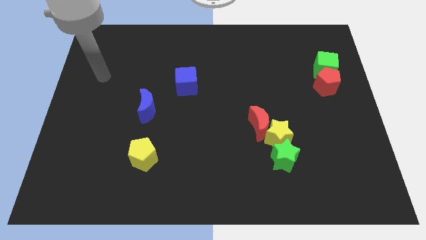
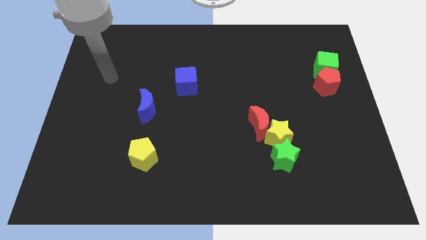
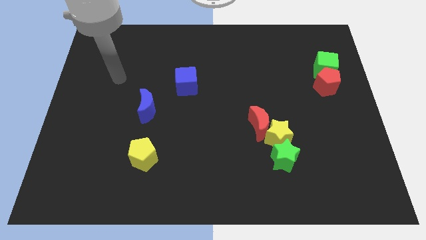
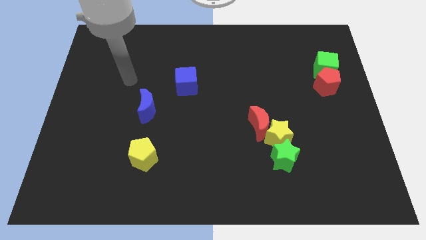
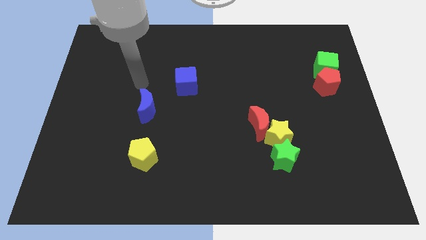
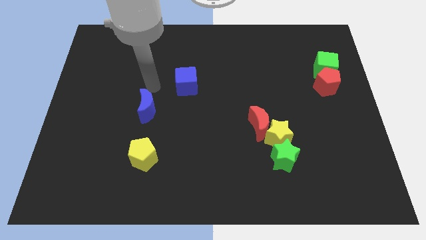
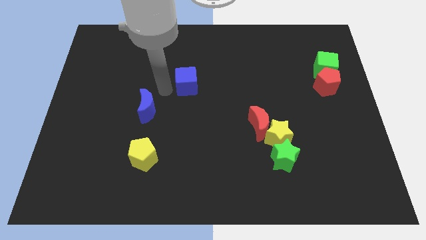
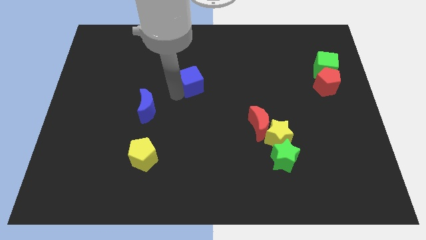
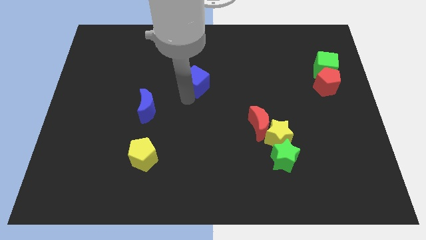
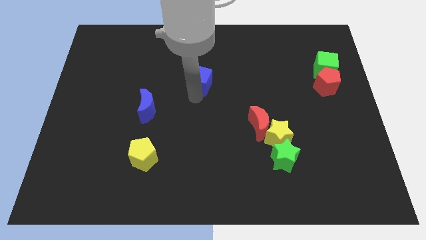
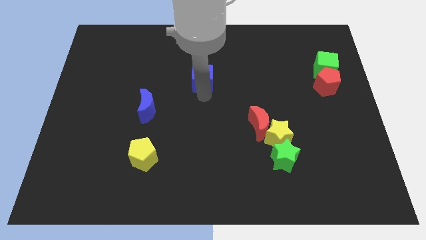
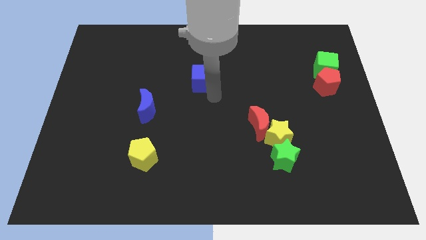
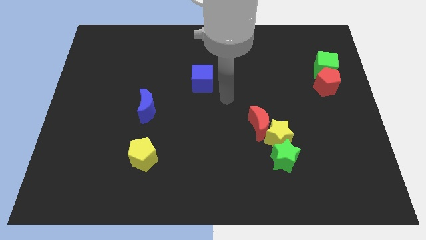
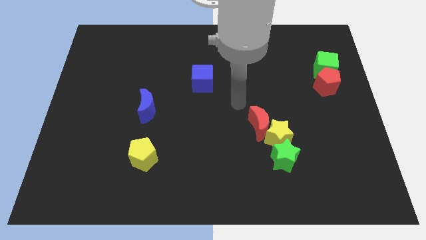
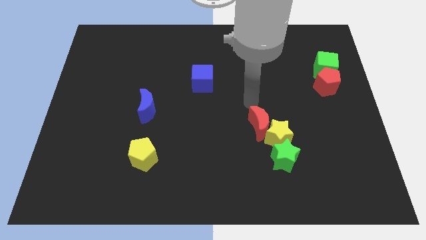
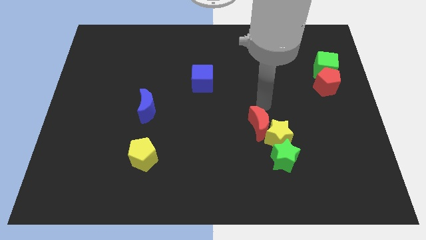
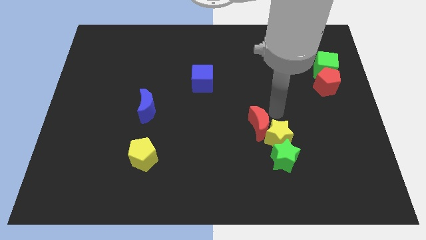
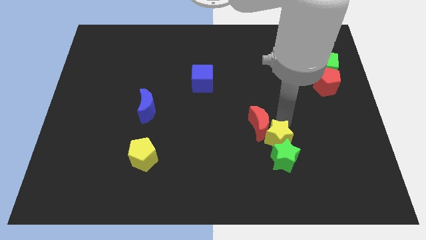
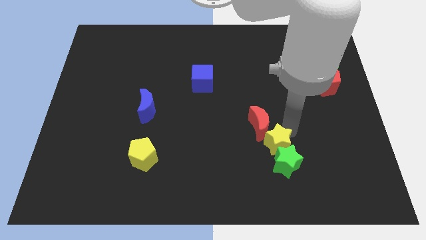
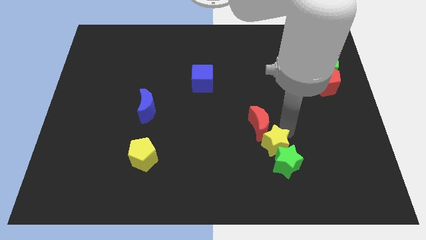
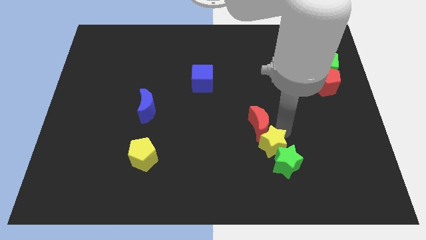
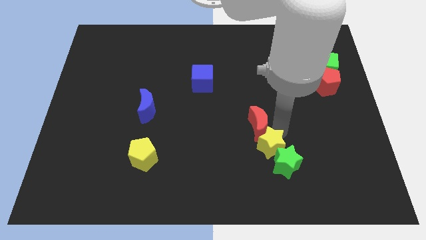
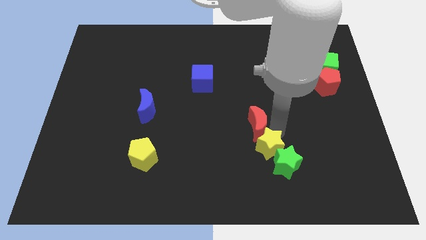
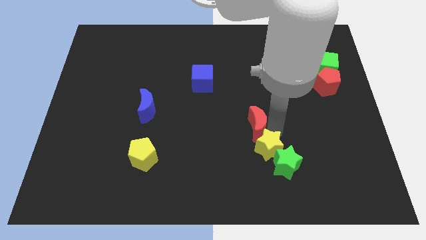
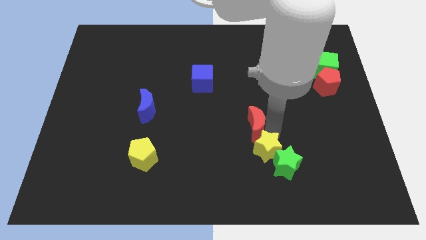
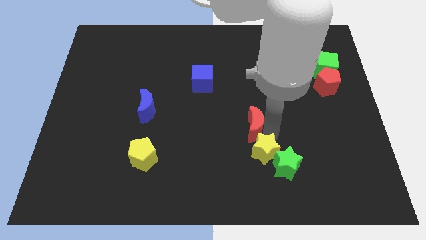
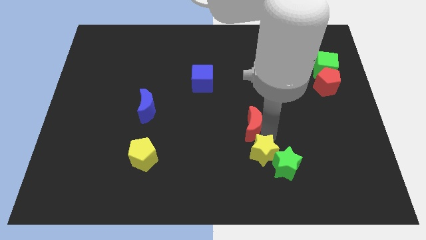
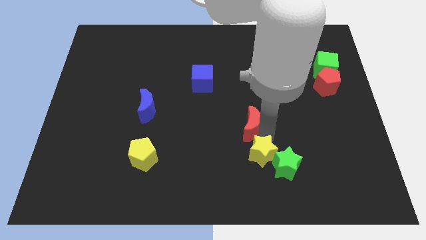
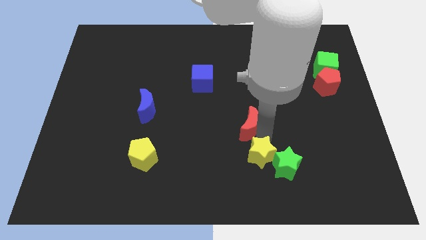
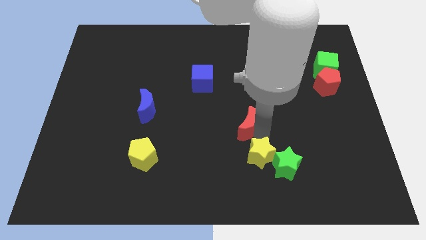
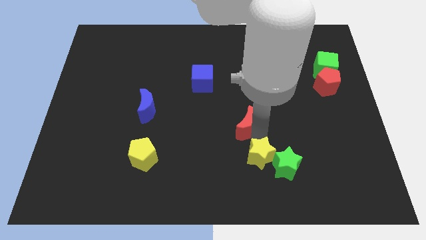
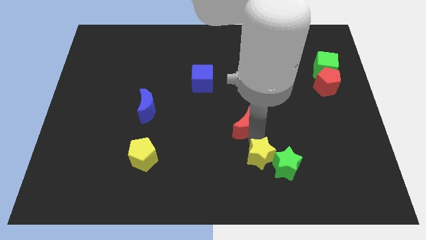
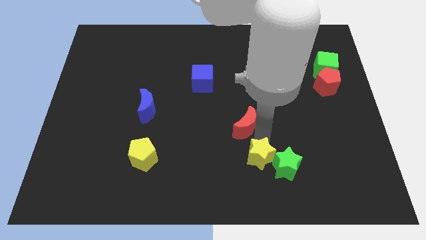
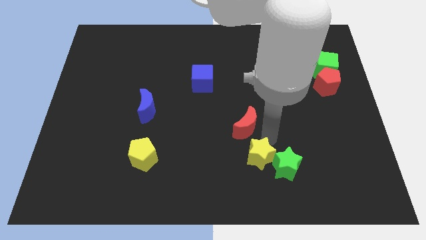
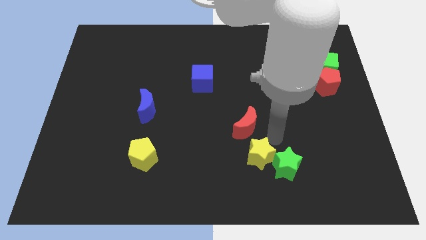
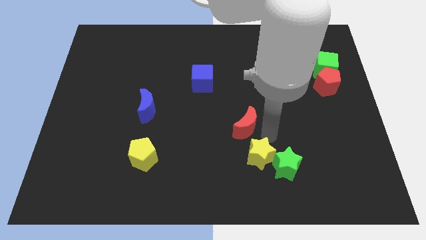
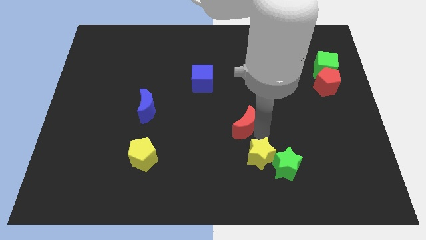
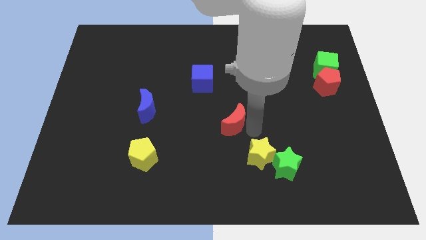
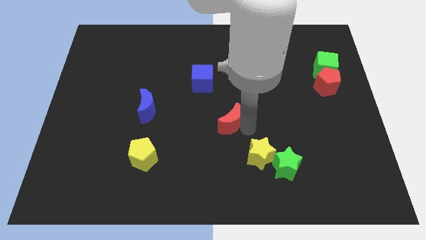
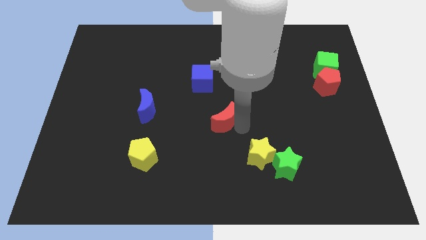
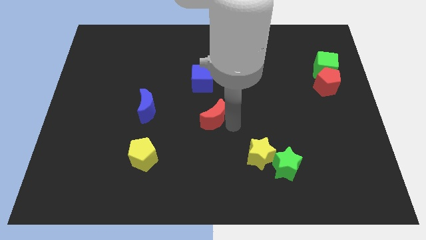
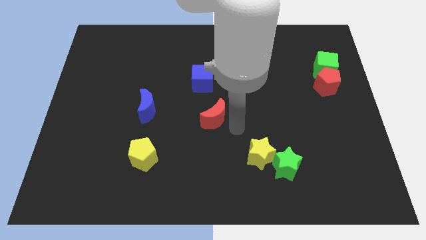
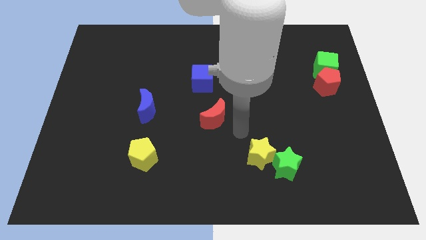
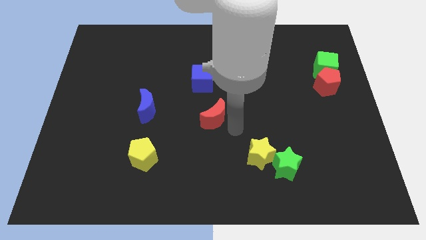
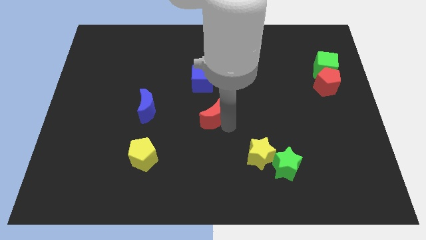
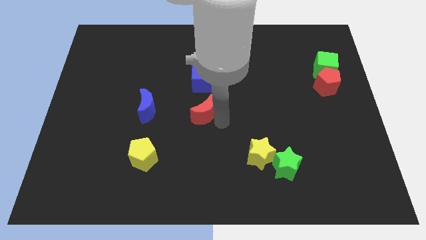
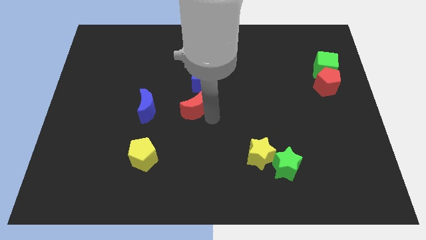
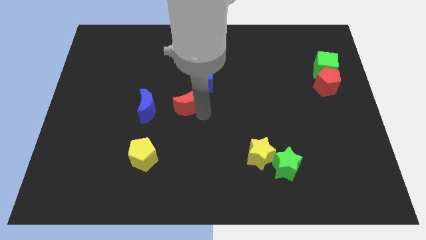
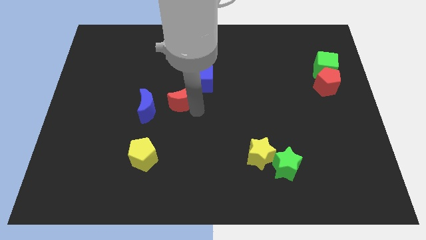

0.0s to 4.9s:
put the red moon diagonally up and to the right of the blue moon

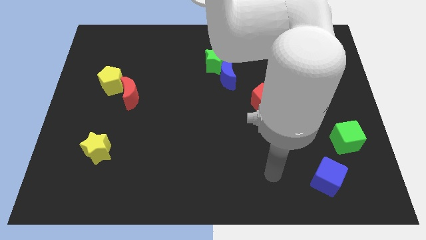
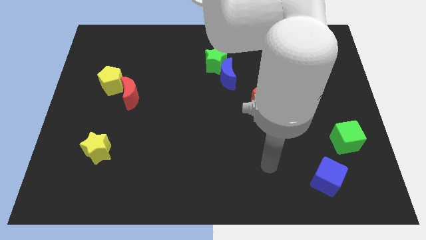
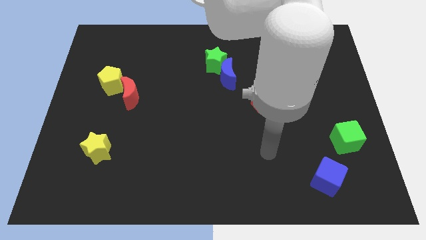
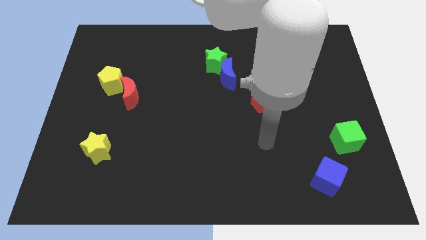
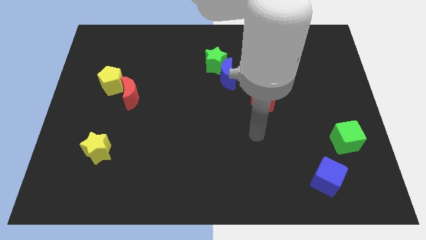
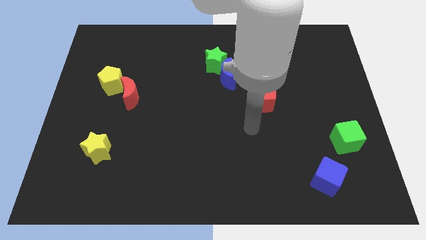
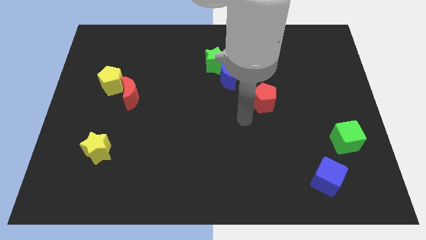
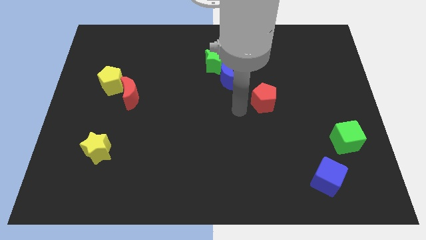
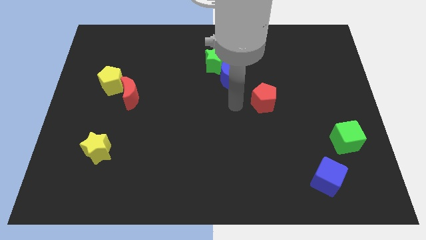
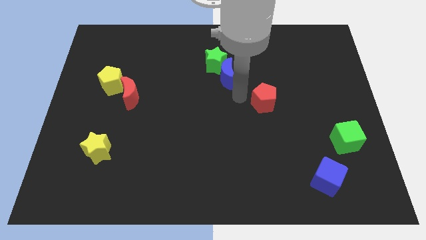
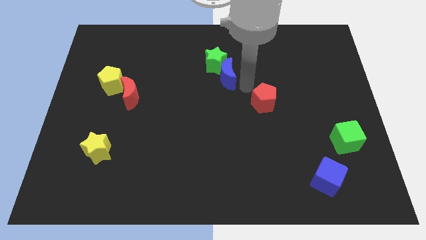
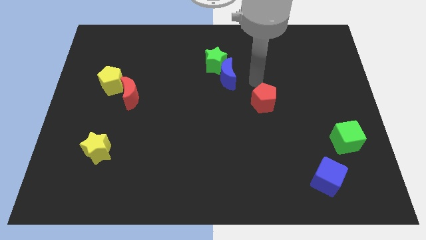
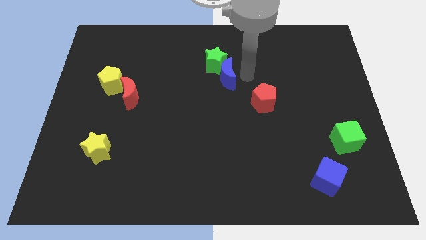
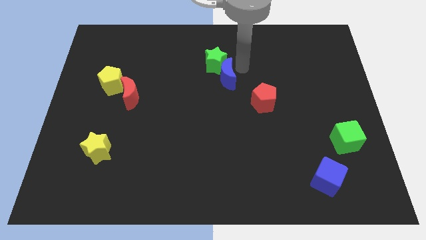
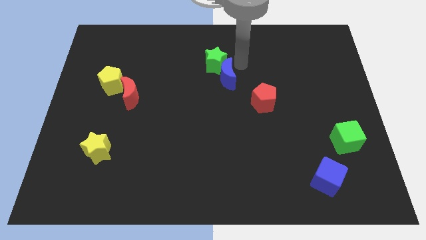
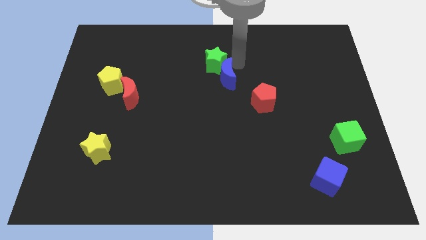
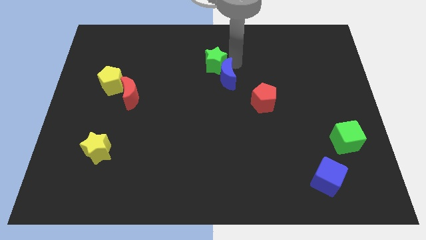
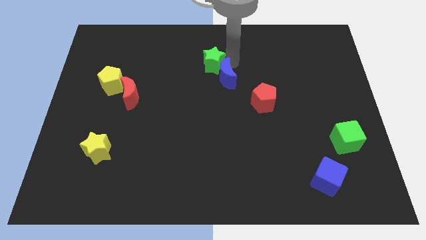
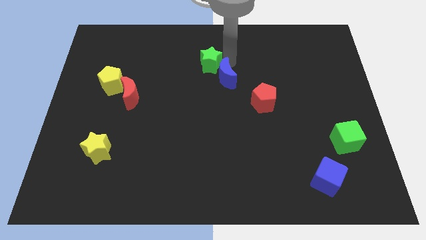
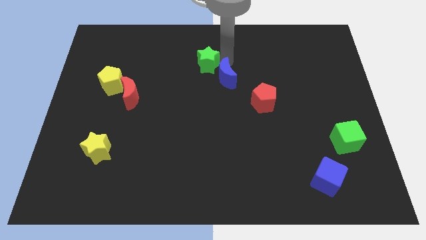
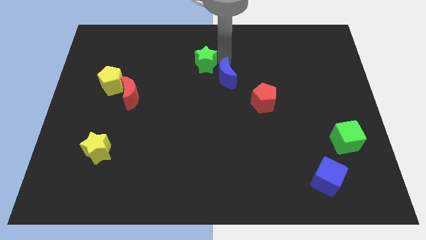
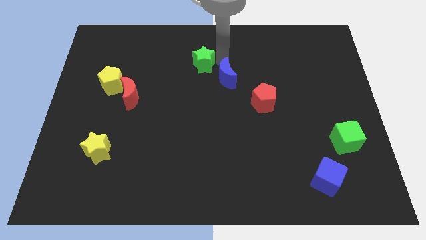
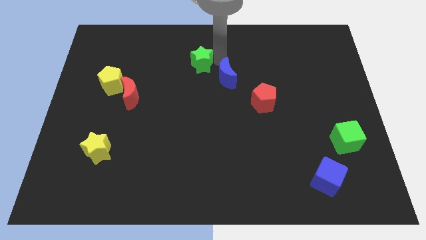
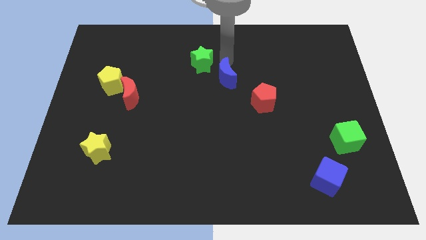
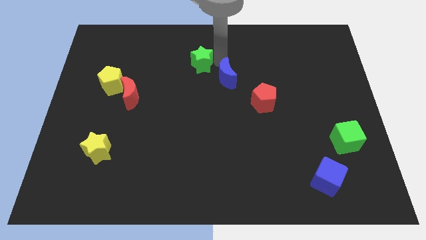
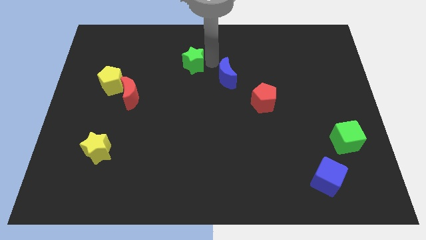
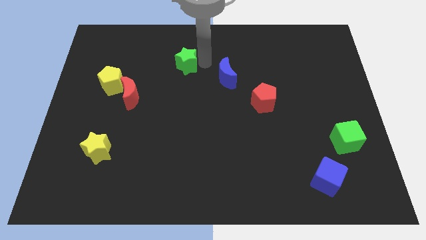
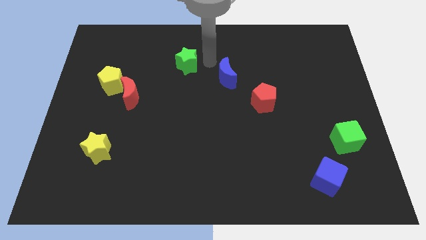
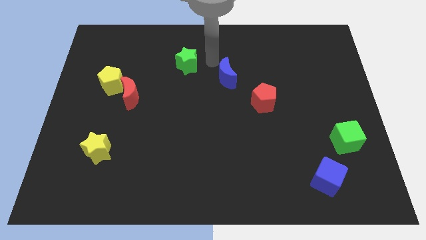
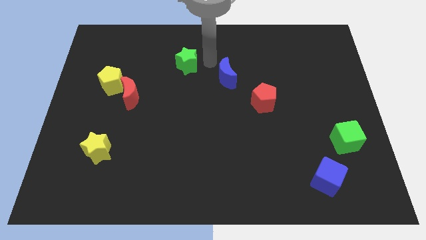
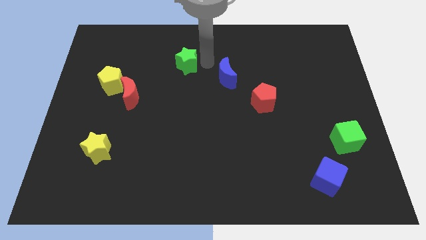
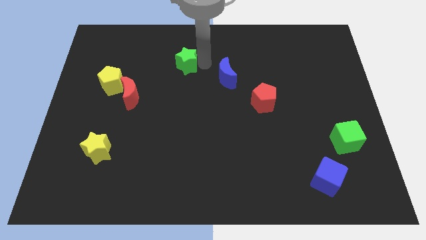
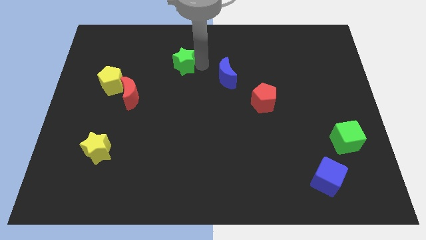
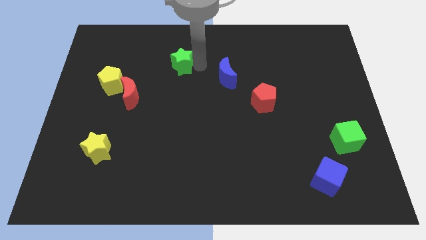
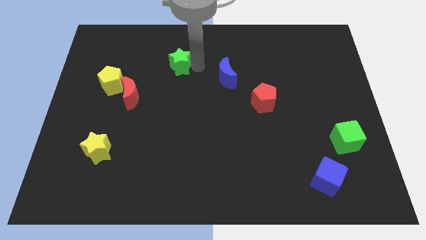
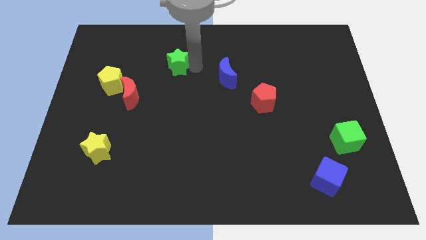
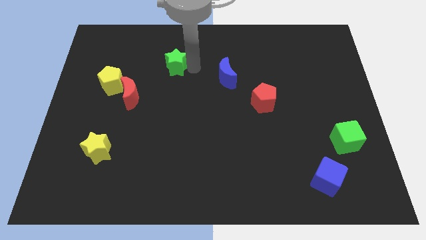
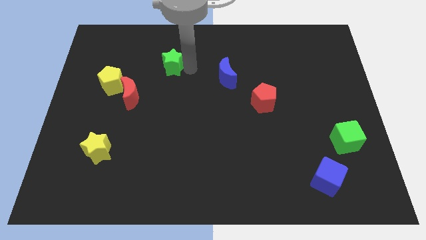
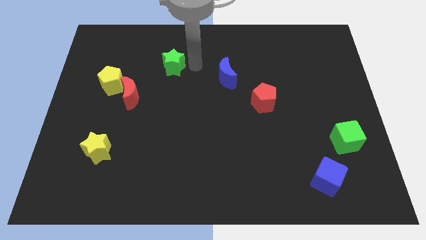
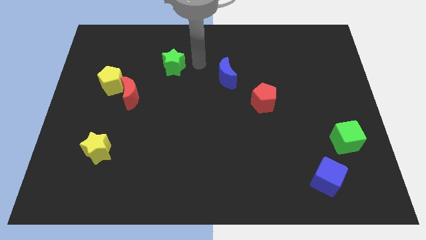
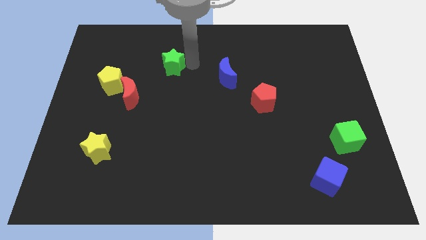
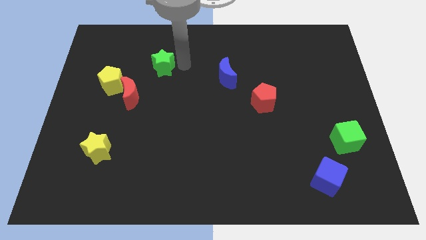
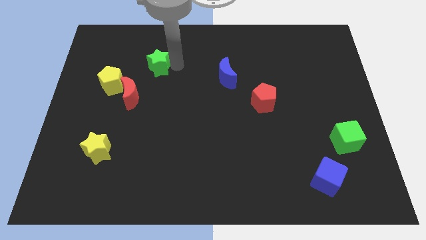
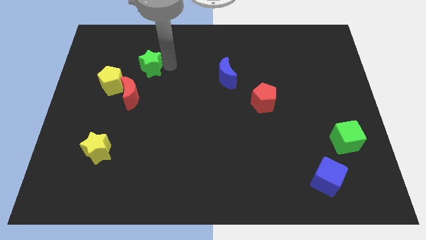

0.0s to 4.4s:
put the green star to the top right of the yellow pentagon
